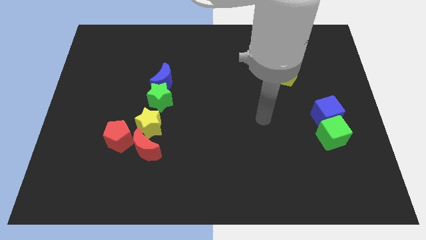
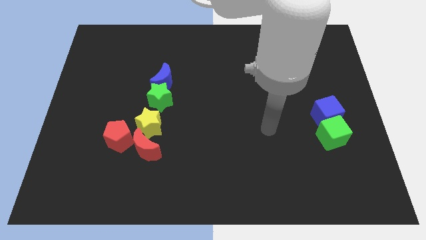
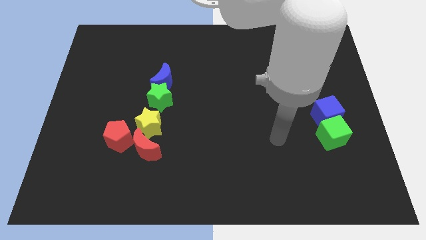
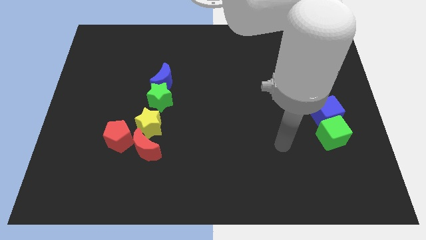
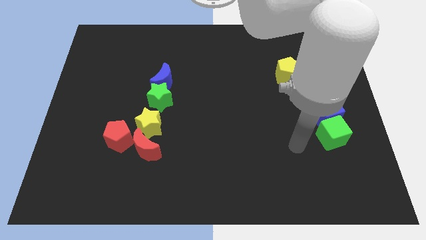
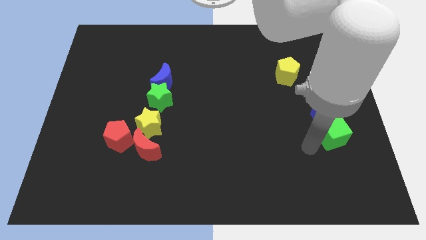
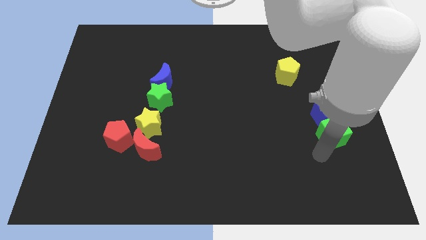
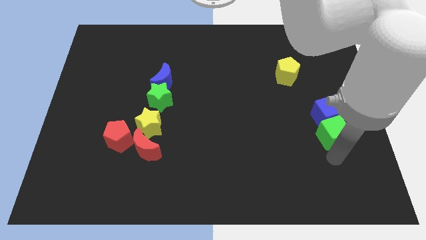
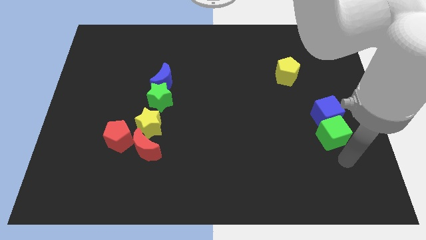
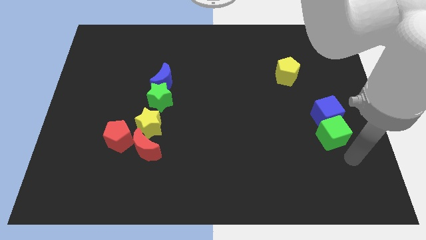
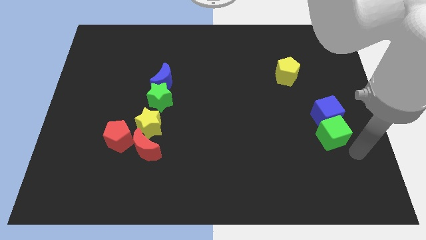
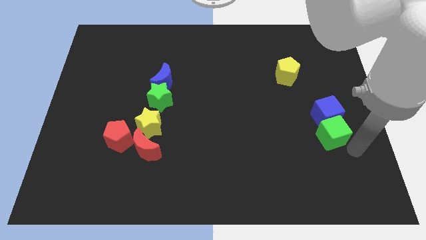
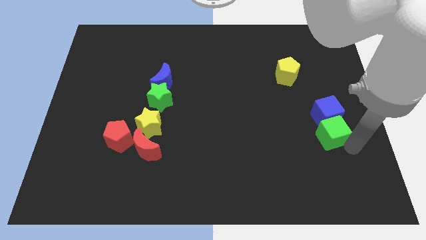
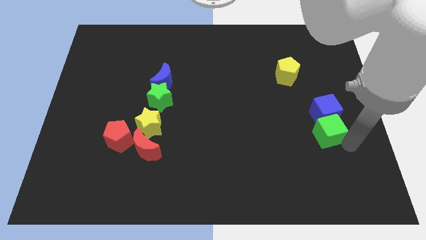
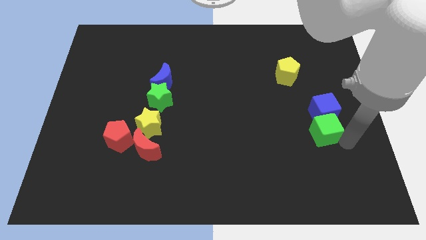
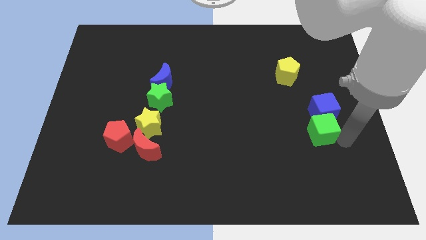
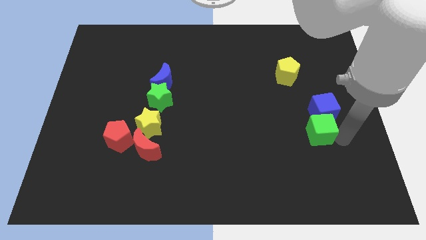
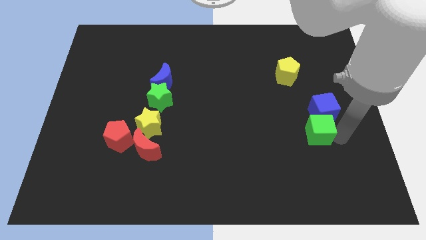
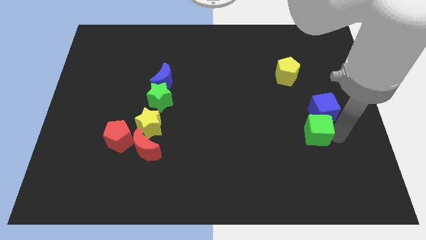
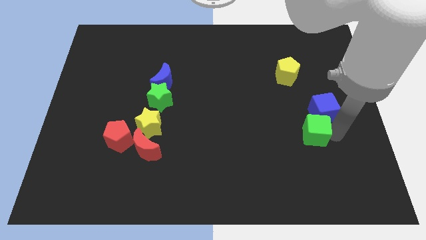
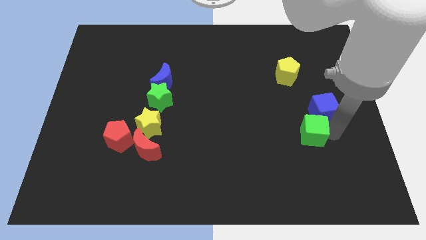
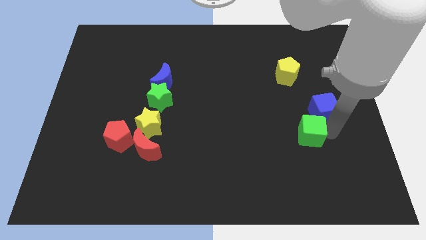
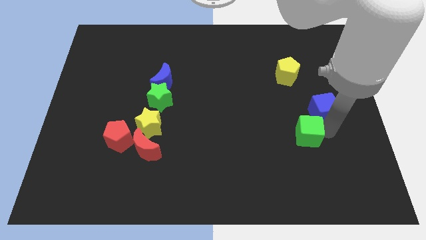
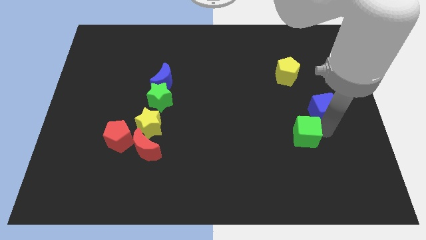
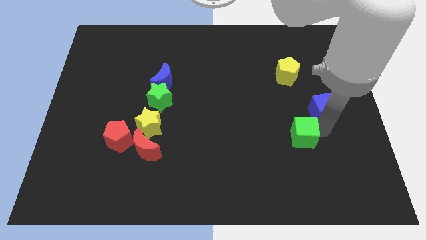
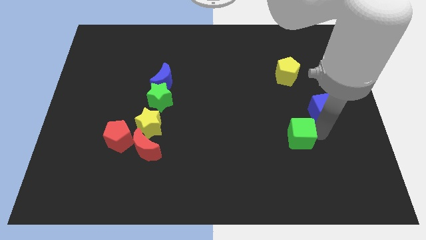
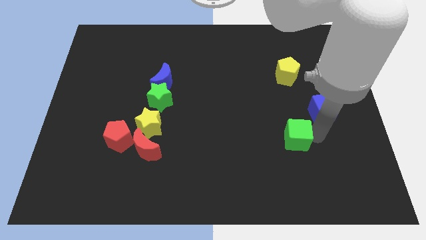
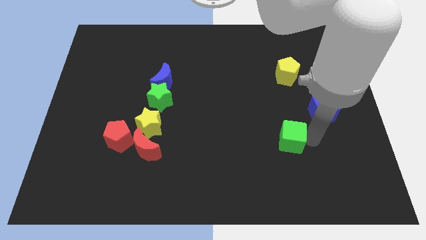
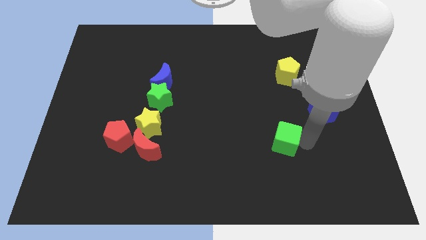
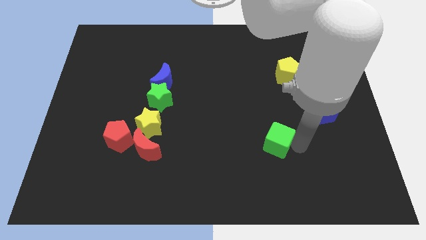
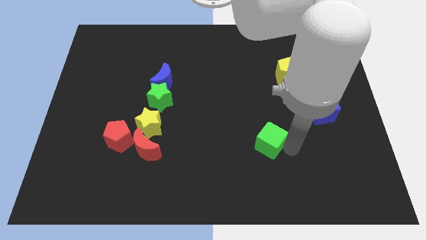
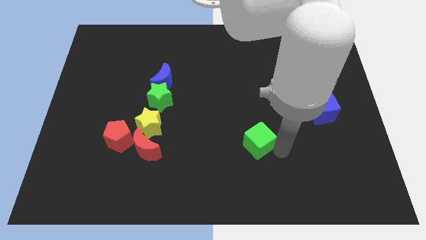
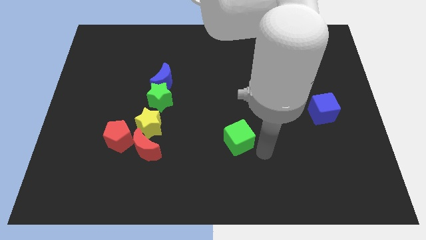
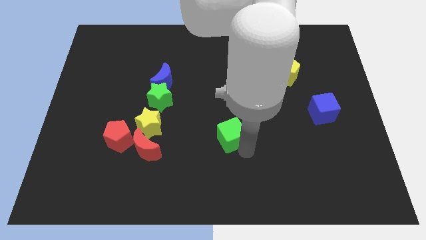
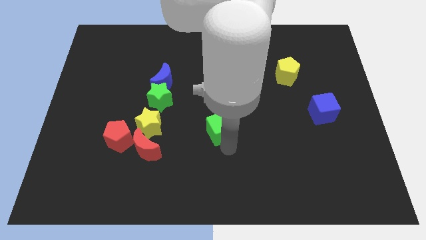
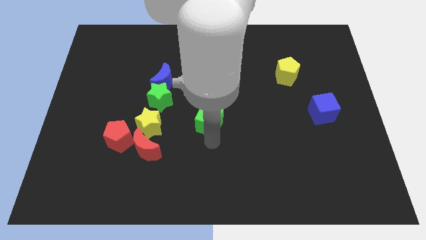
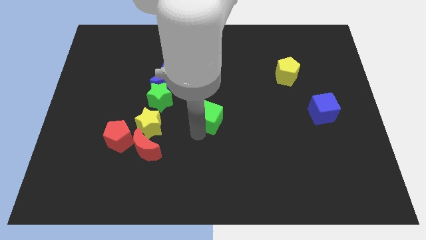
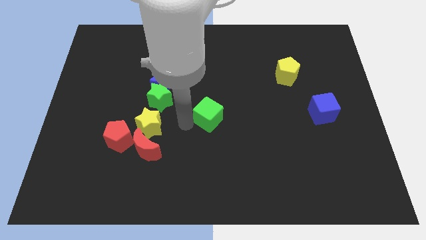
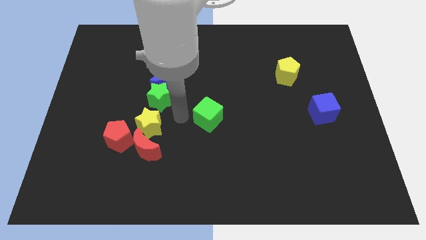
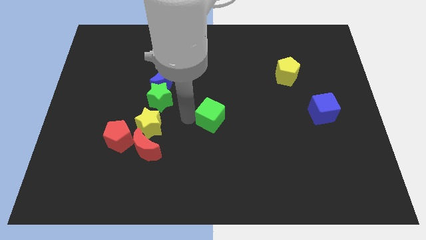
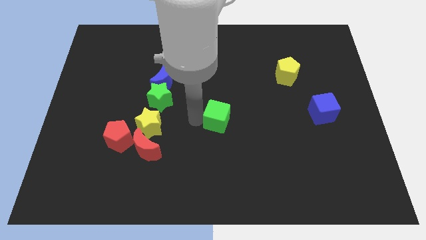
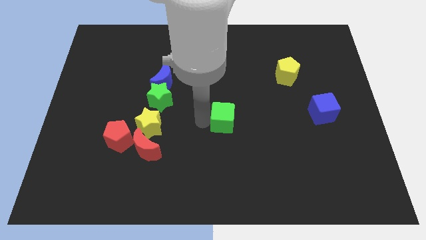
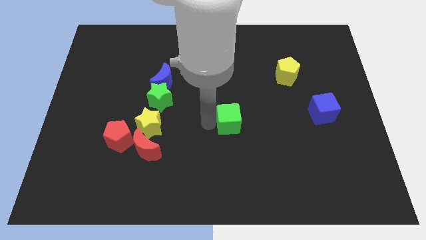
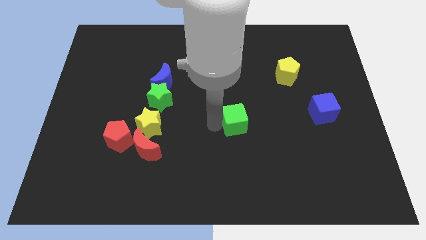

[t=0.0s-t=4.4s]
slightly push the green cube up and then to the left

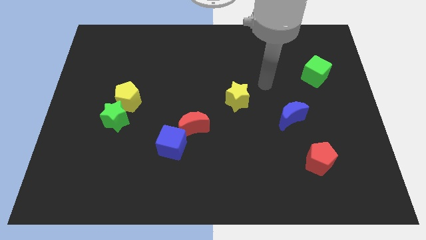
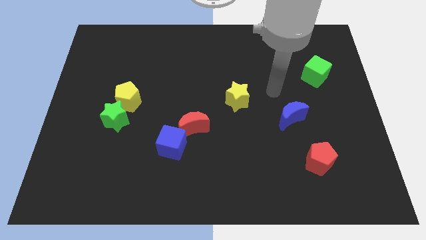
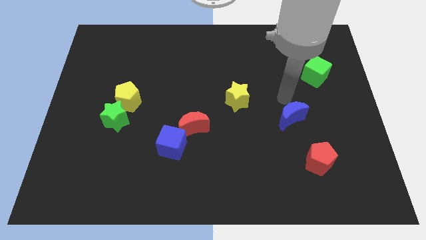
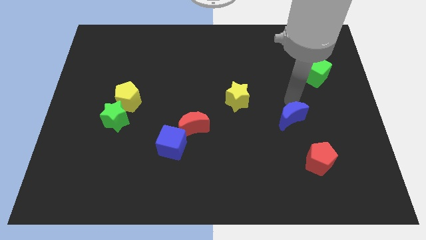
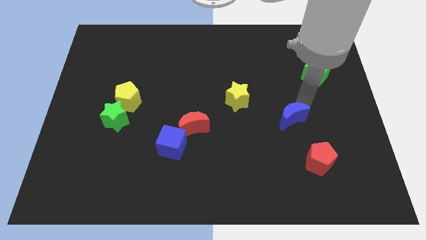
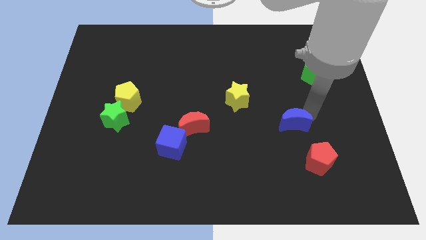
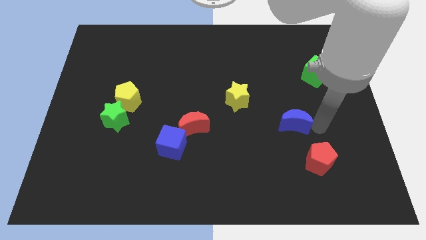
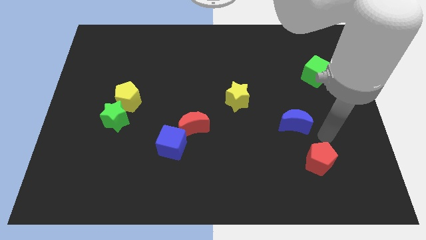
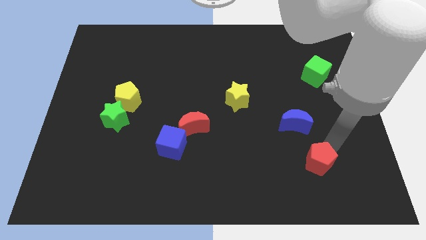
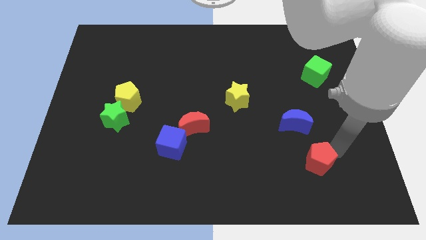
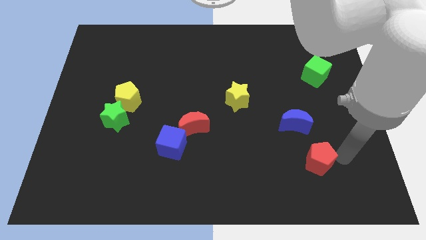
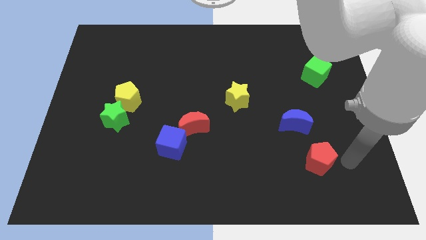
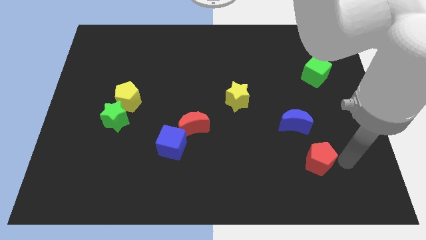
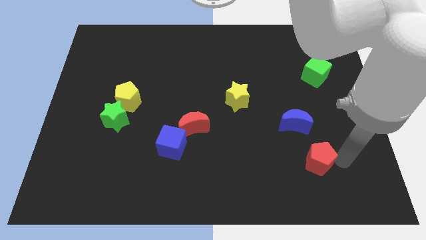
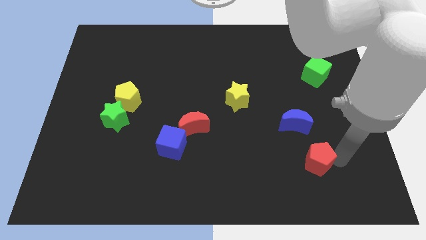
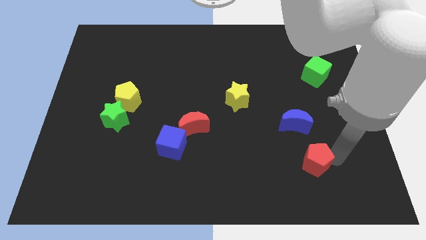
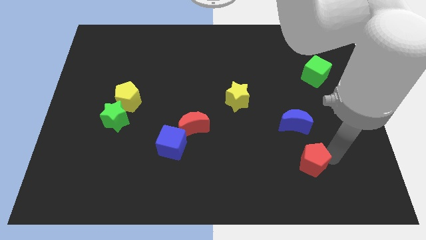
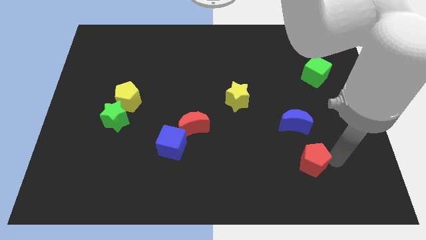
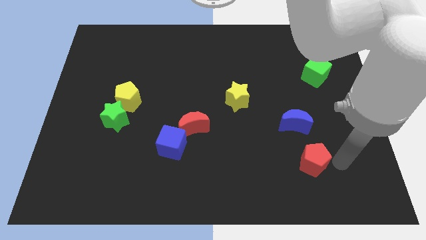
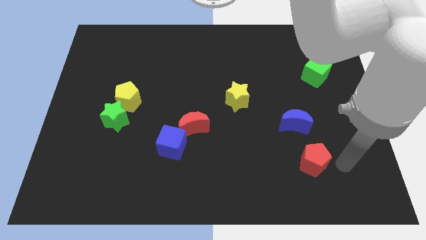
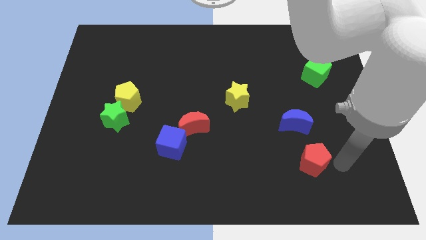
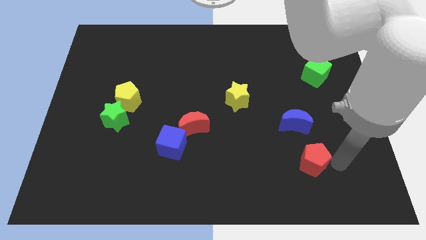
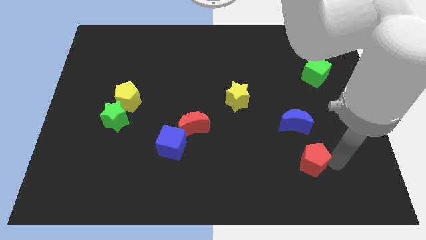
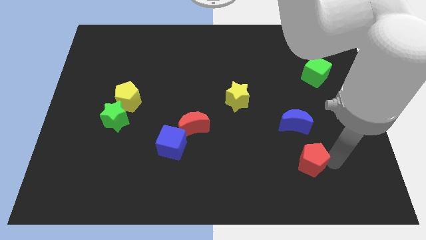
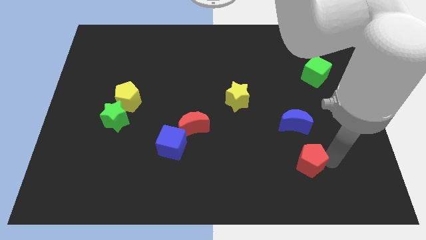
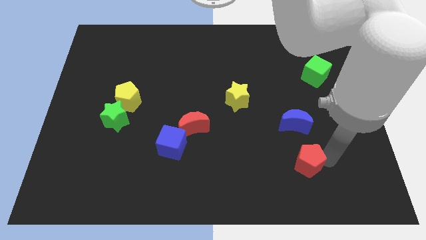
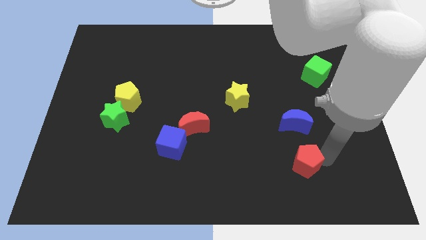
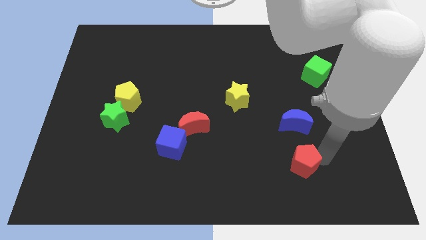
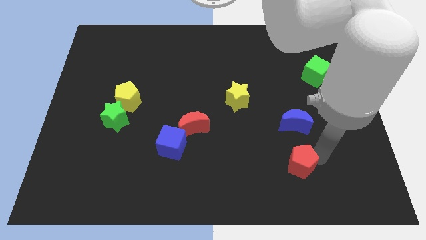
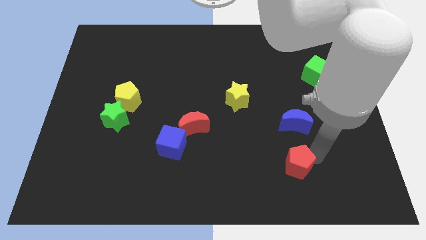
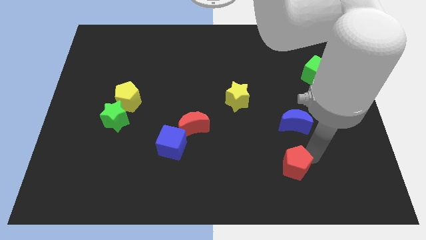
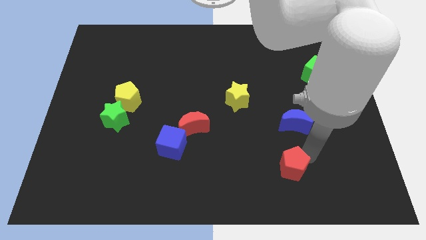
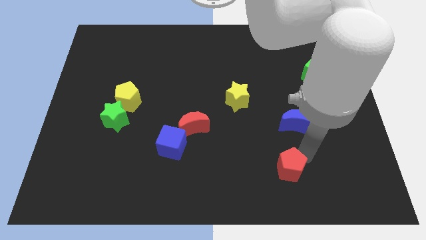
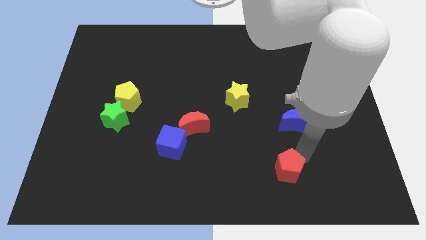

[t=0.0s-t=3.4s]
slightly slide the red pentagon left
